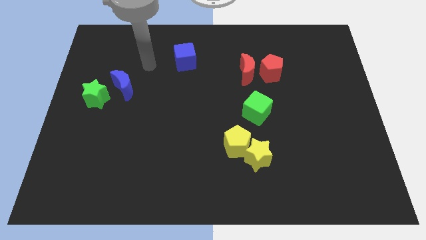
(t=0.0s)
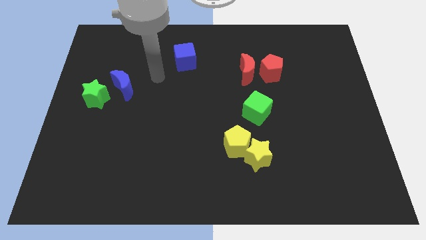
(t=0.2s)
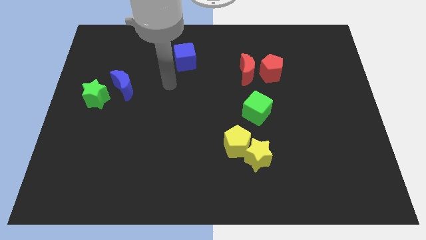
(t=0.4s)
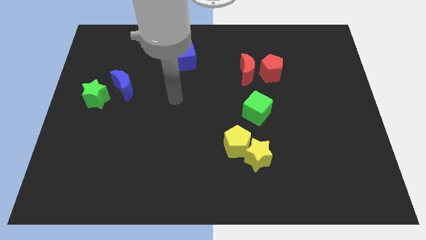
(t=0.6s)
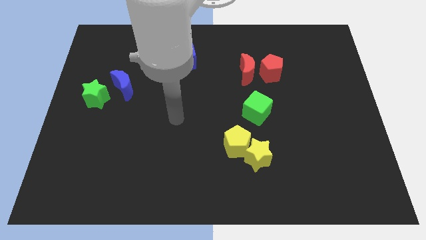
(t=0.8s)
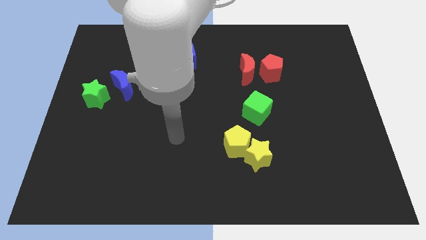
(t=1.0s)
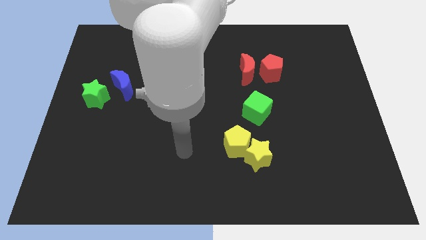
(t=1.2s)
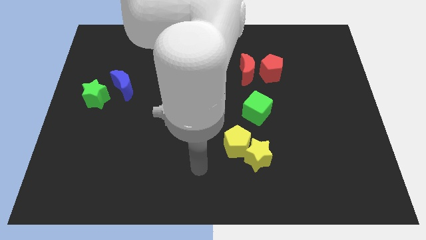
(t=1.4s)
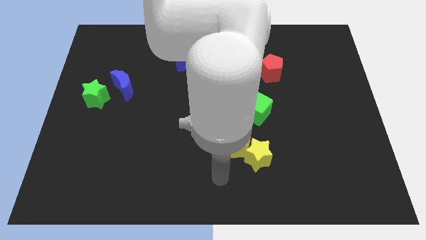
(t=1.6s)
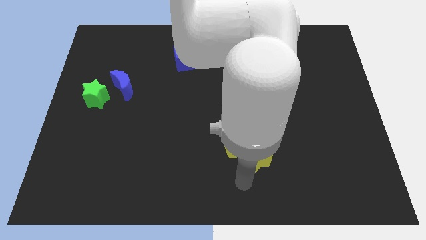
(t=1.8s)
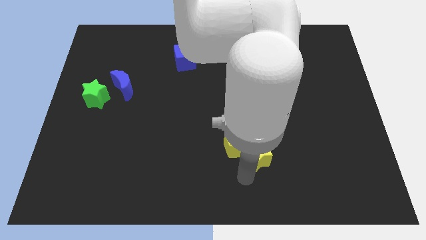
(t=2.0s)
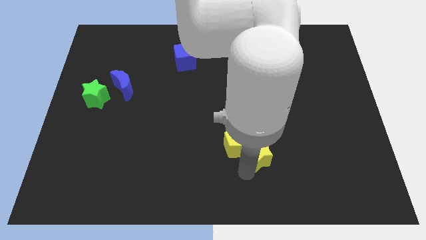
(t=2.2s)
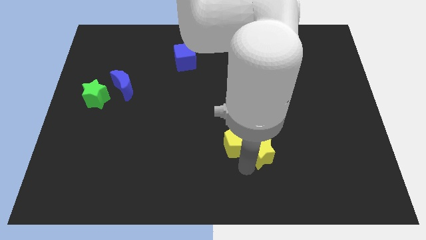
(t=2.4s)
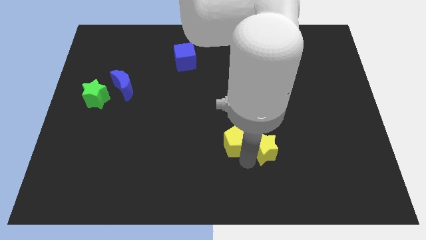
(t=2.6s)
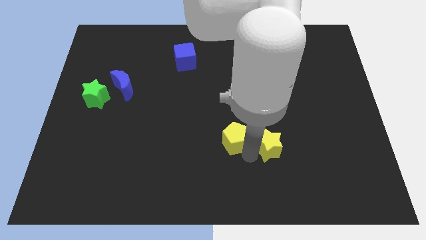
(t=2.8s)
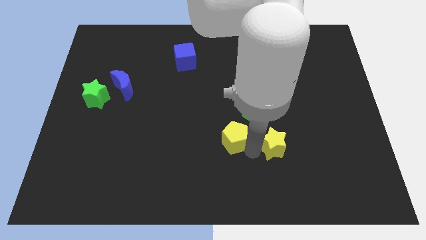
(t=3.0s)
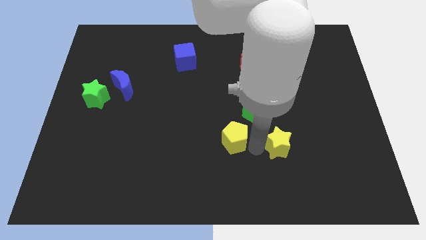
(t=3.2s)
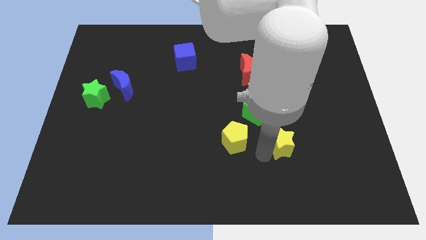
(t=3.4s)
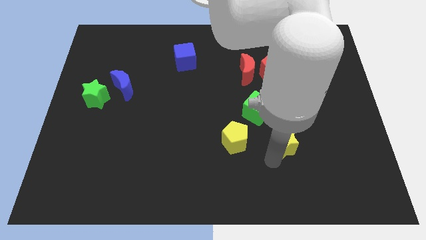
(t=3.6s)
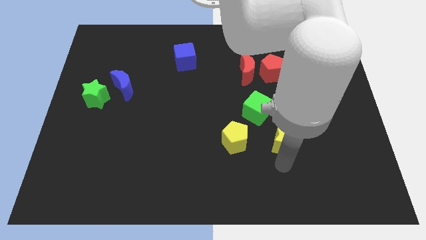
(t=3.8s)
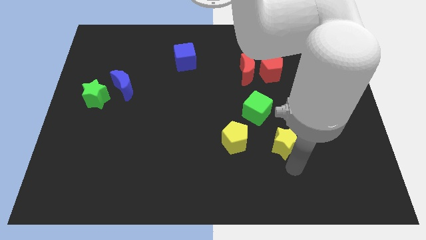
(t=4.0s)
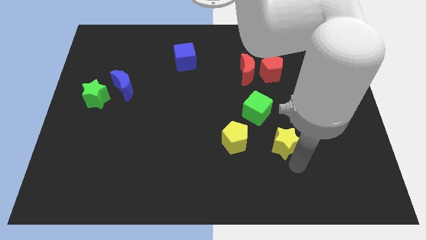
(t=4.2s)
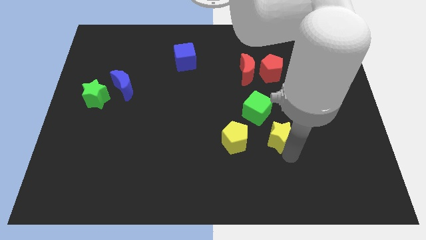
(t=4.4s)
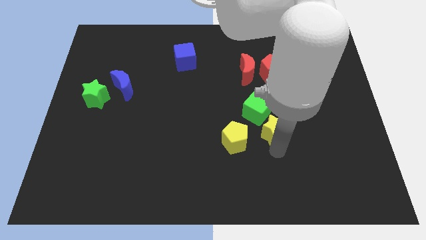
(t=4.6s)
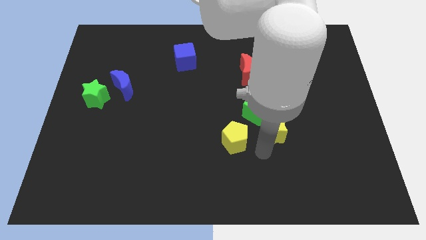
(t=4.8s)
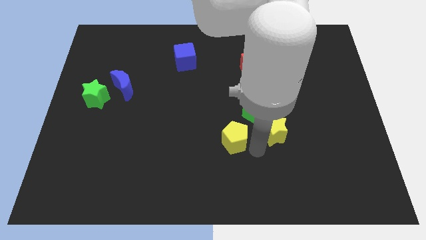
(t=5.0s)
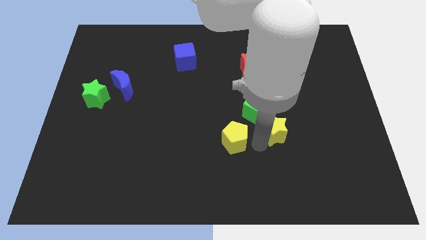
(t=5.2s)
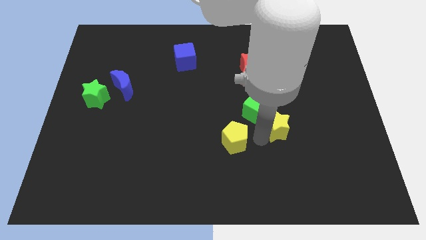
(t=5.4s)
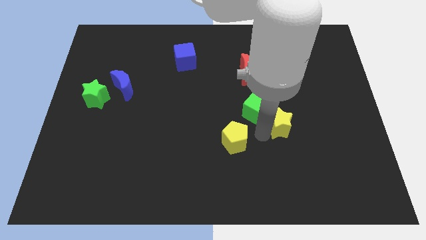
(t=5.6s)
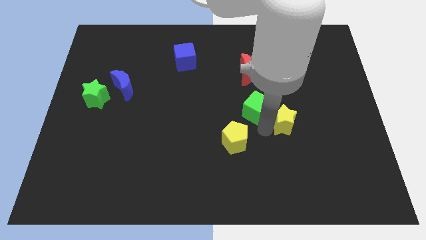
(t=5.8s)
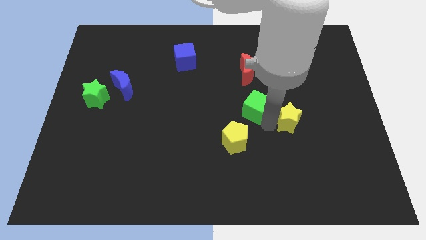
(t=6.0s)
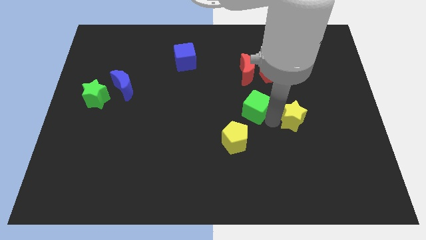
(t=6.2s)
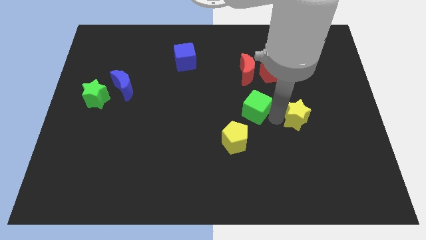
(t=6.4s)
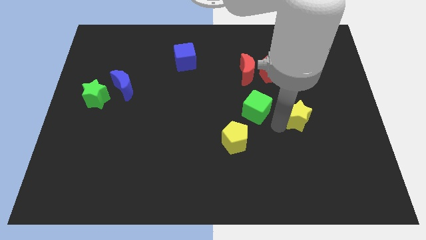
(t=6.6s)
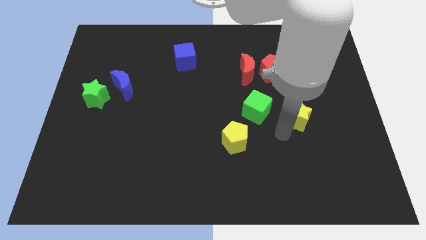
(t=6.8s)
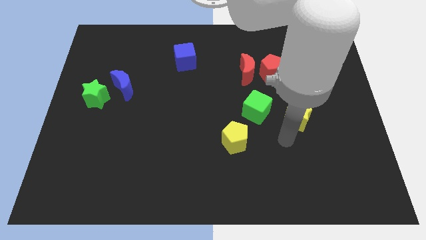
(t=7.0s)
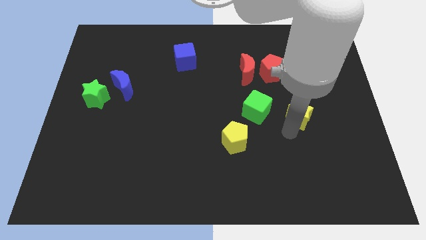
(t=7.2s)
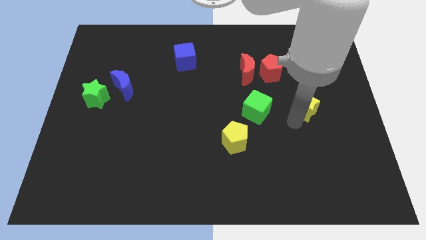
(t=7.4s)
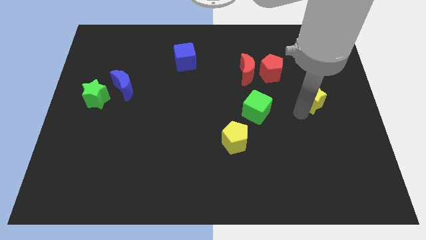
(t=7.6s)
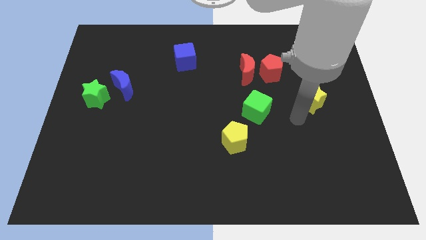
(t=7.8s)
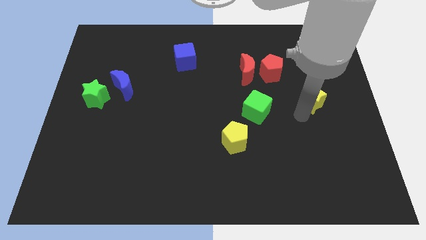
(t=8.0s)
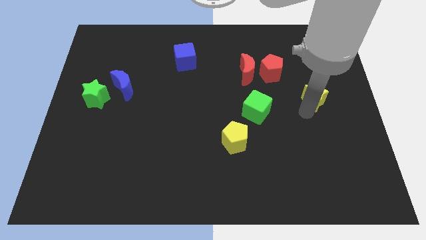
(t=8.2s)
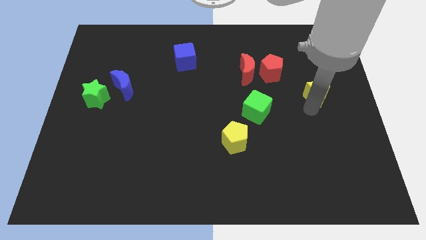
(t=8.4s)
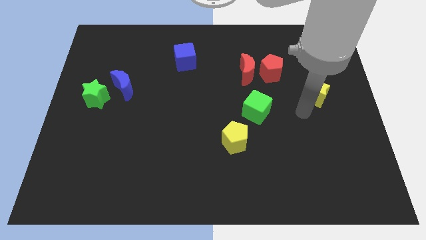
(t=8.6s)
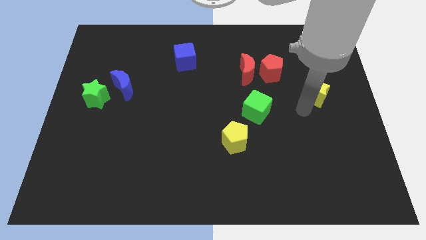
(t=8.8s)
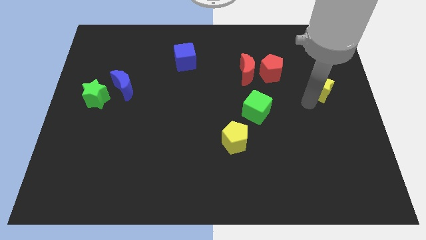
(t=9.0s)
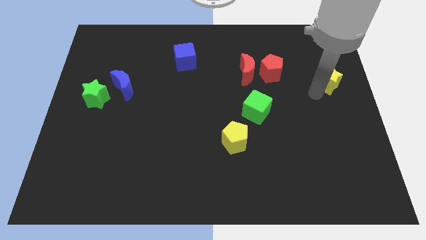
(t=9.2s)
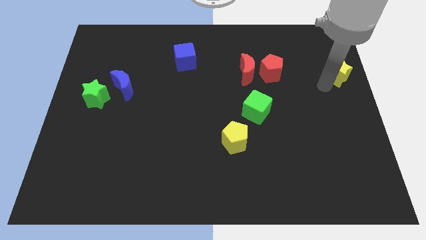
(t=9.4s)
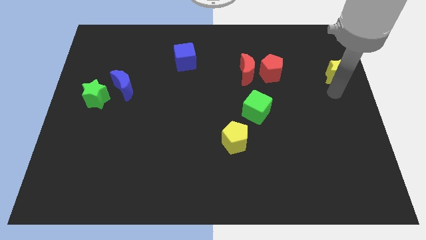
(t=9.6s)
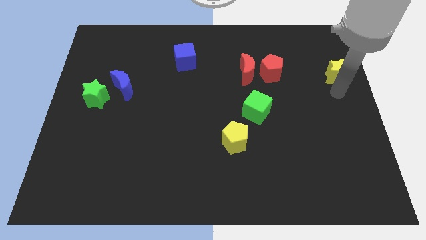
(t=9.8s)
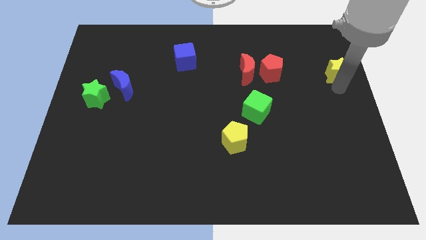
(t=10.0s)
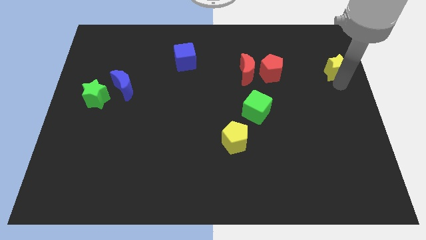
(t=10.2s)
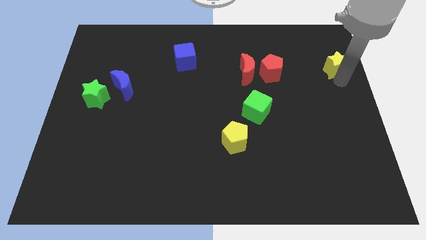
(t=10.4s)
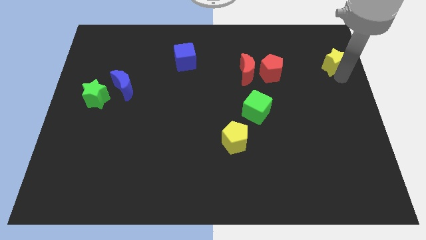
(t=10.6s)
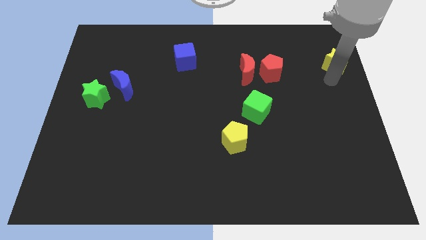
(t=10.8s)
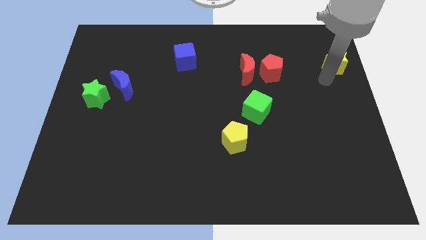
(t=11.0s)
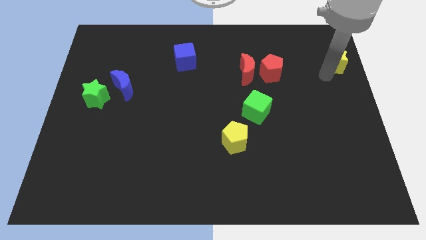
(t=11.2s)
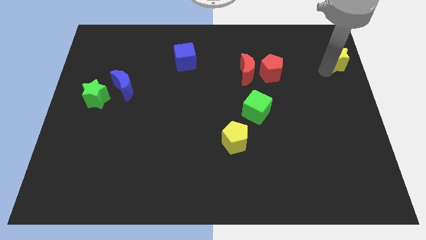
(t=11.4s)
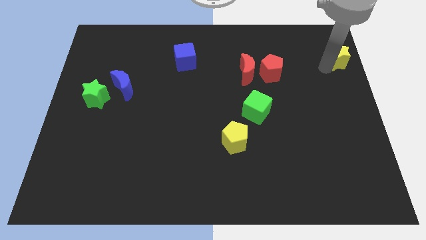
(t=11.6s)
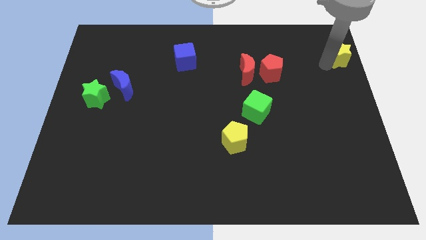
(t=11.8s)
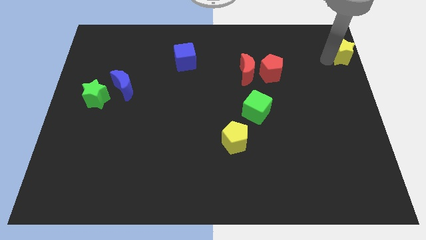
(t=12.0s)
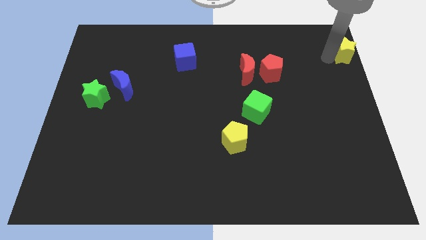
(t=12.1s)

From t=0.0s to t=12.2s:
push the yellow star to the upper right corner

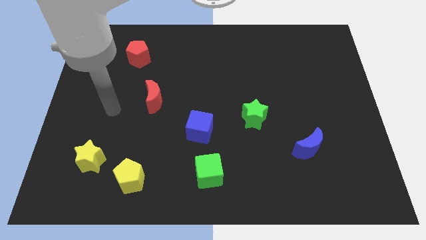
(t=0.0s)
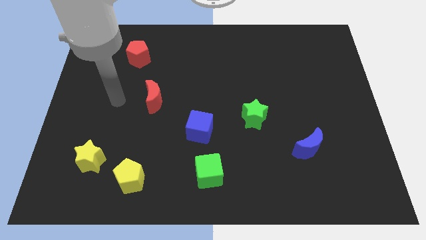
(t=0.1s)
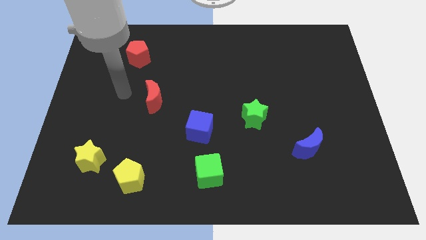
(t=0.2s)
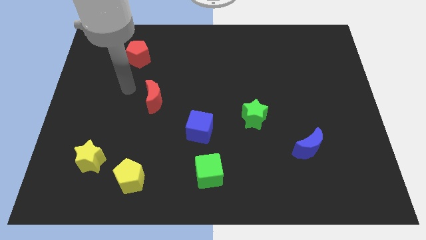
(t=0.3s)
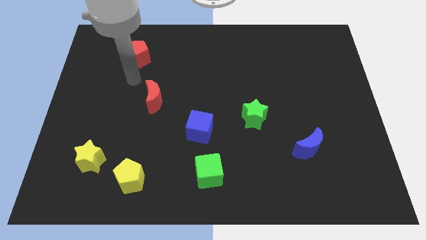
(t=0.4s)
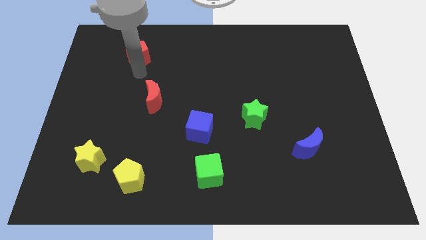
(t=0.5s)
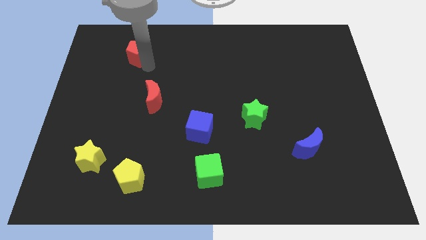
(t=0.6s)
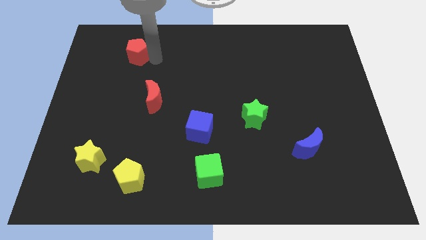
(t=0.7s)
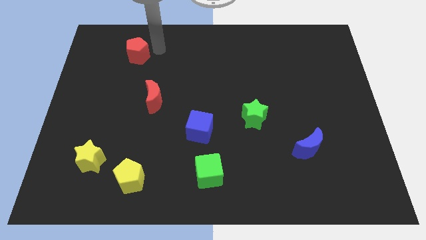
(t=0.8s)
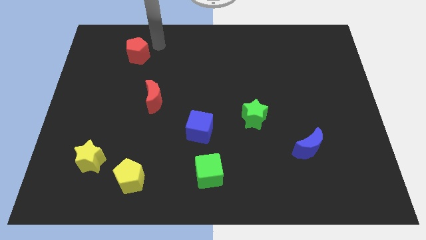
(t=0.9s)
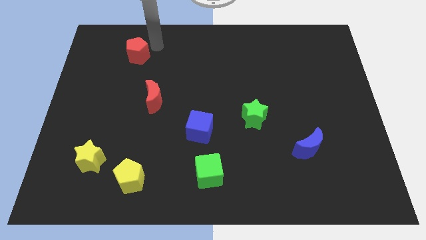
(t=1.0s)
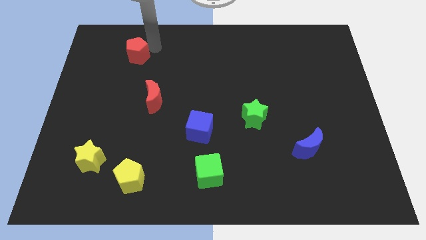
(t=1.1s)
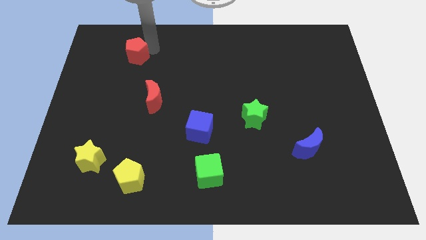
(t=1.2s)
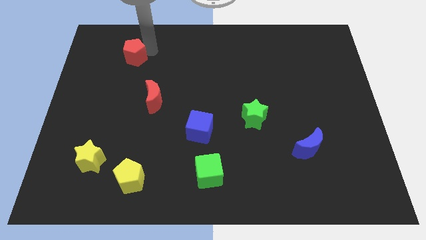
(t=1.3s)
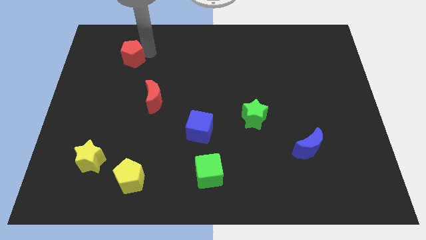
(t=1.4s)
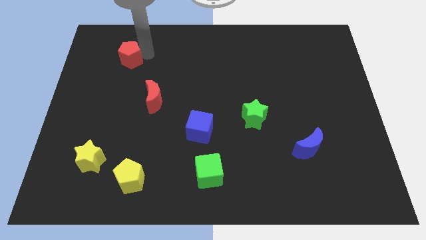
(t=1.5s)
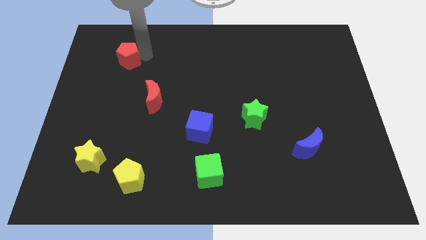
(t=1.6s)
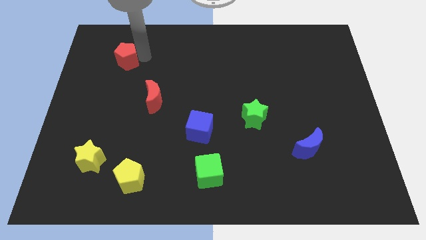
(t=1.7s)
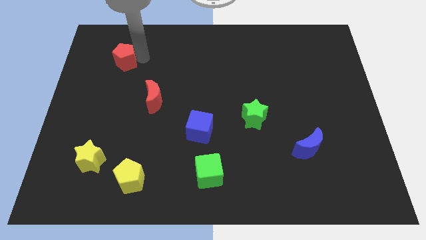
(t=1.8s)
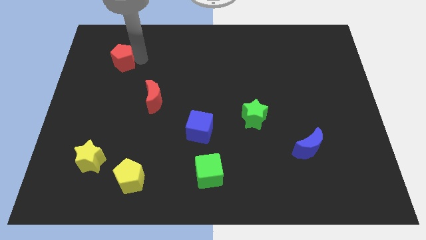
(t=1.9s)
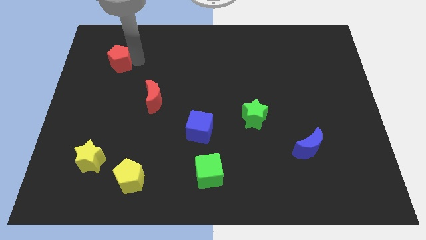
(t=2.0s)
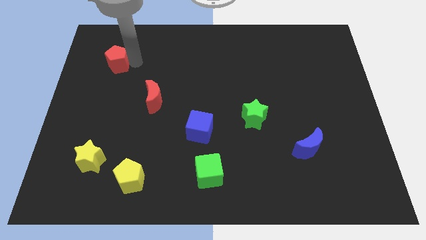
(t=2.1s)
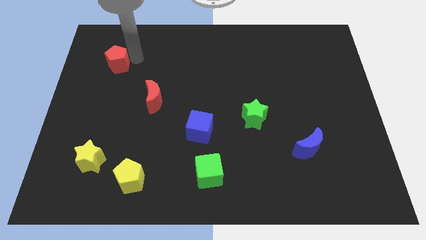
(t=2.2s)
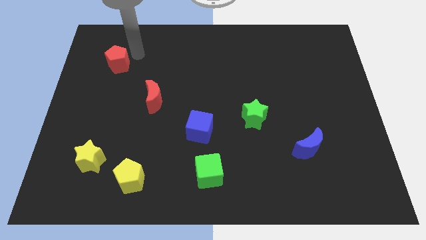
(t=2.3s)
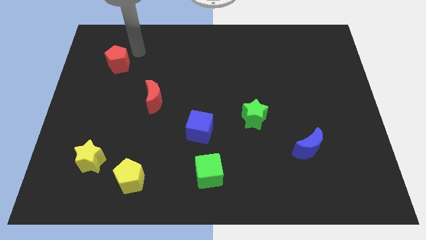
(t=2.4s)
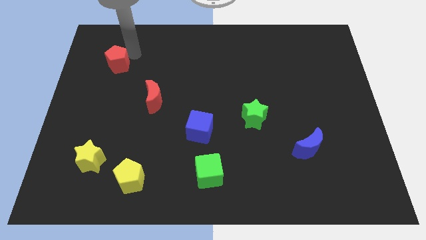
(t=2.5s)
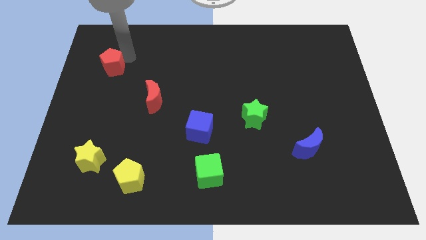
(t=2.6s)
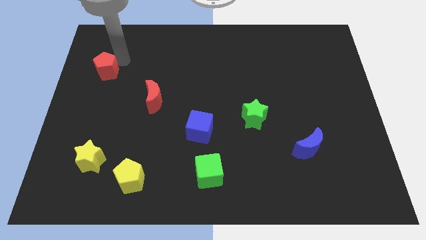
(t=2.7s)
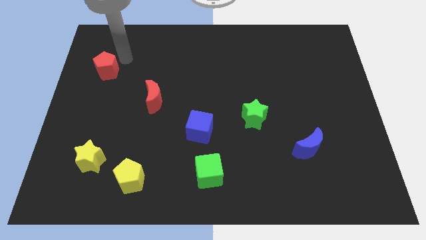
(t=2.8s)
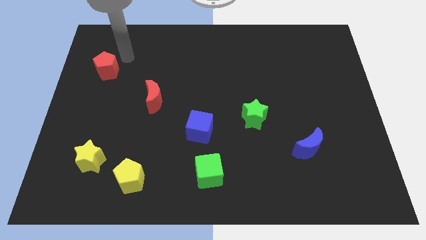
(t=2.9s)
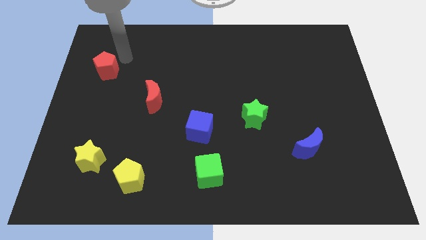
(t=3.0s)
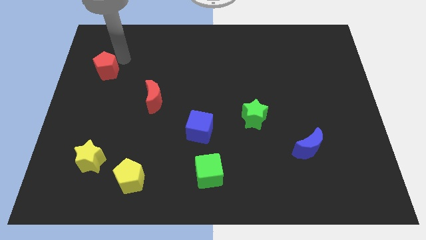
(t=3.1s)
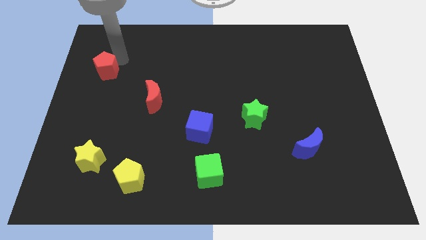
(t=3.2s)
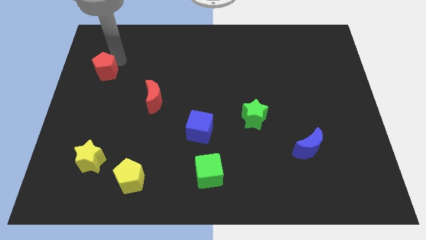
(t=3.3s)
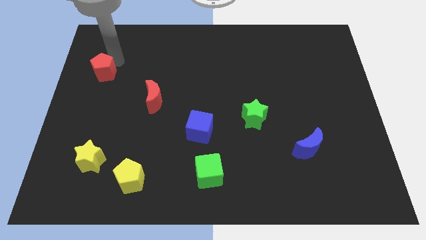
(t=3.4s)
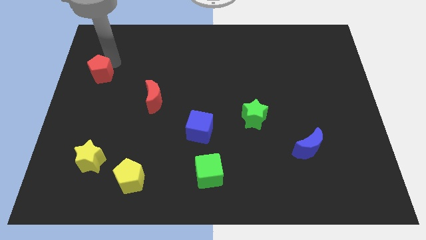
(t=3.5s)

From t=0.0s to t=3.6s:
move the red pentagon to the center left
